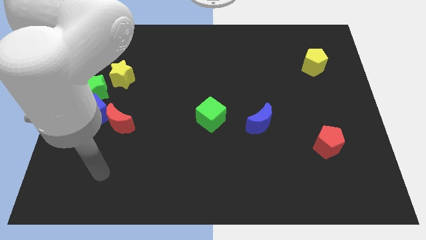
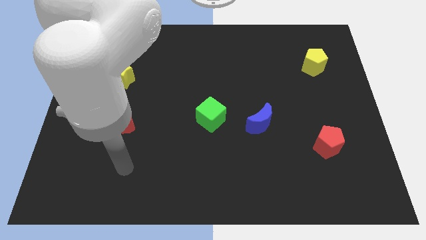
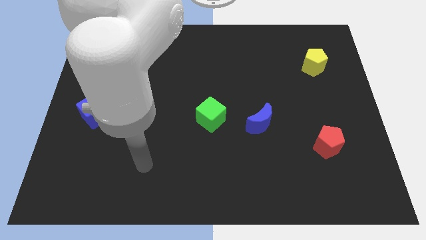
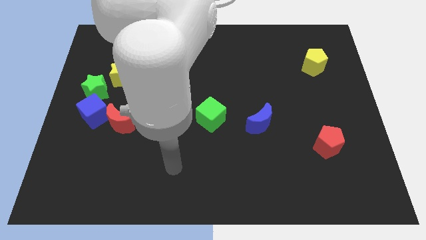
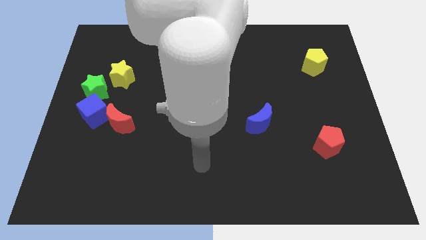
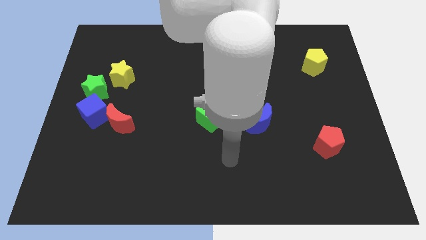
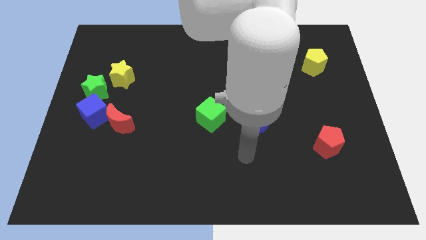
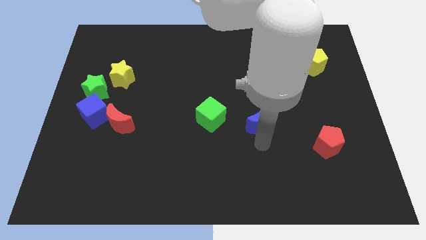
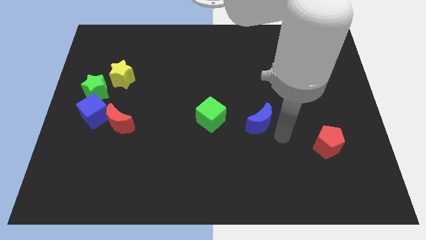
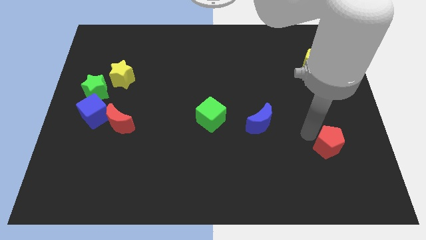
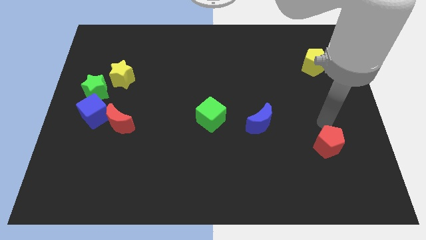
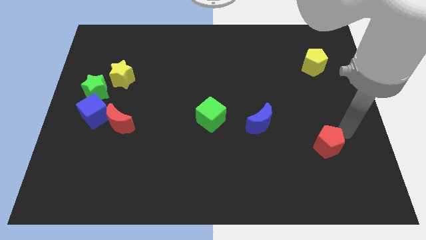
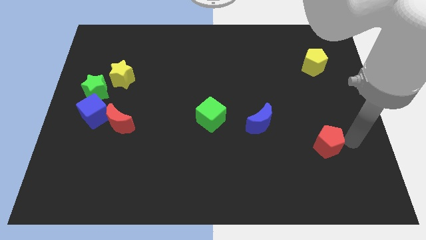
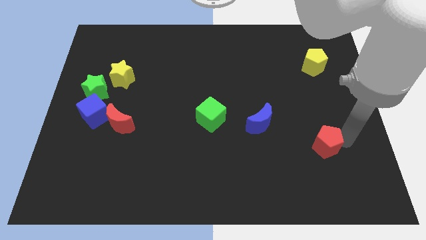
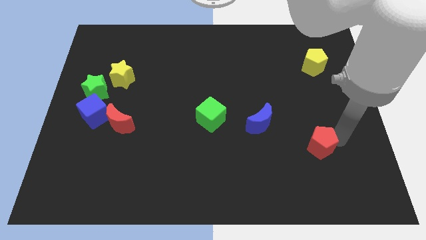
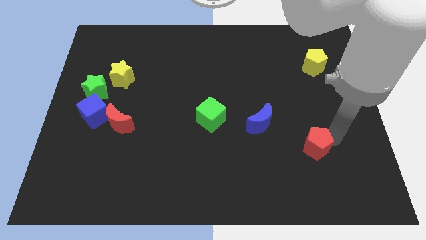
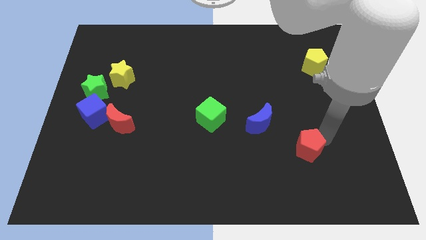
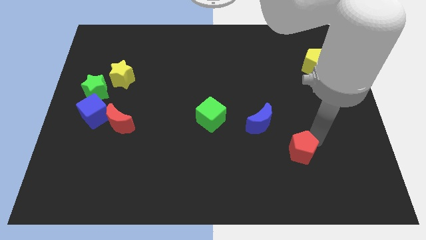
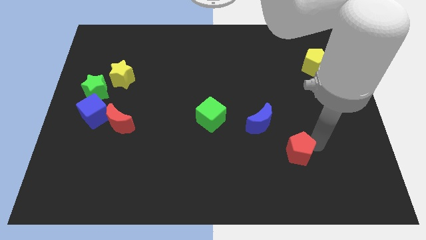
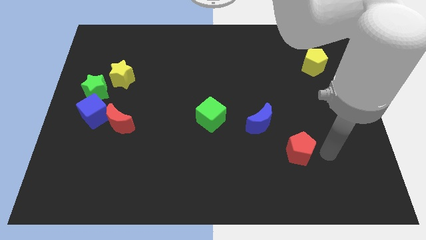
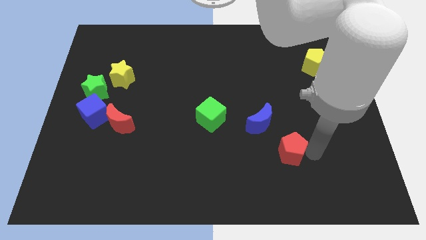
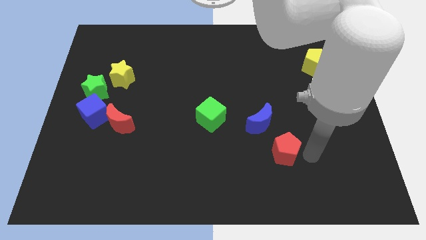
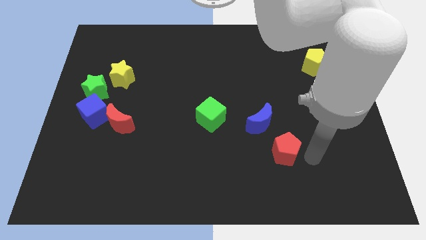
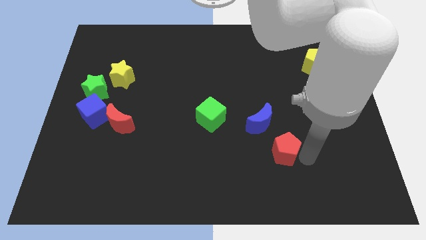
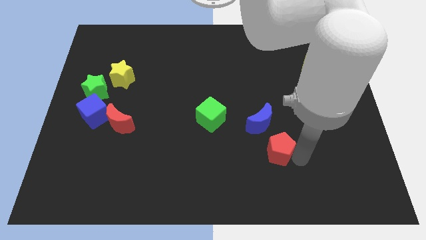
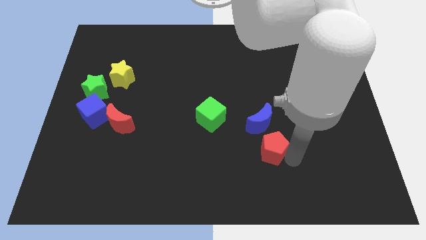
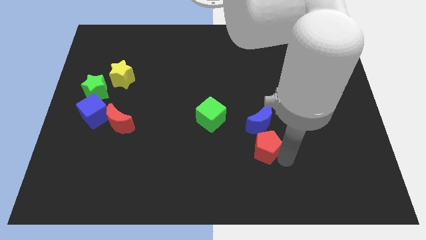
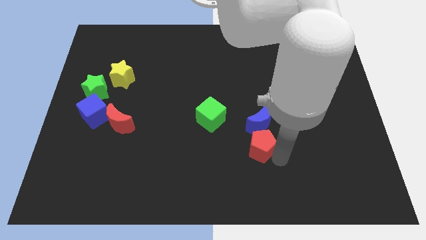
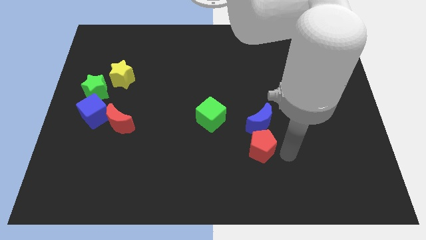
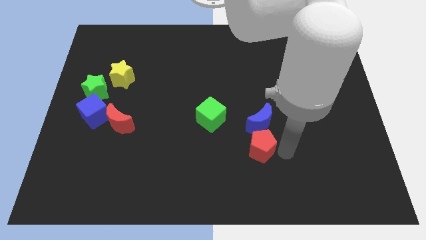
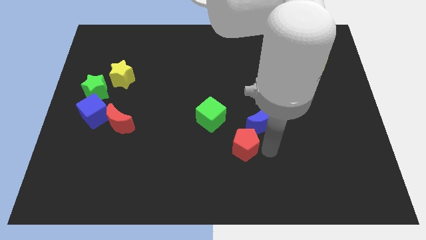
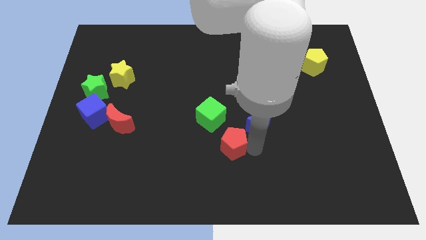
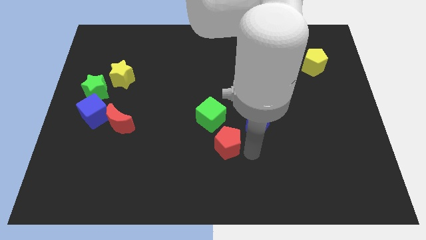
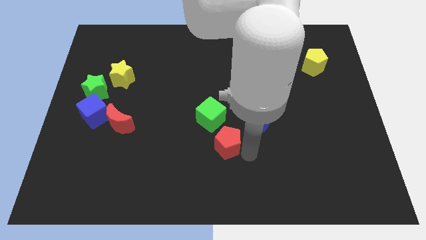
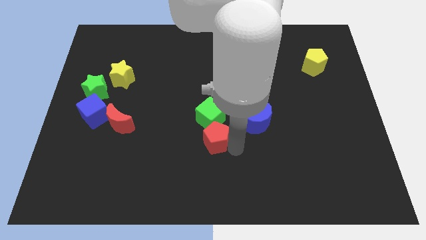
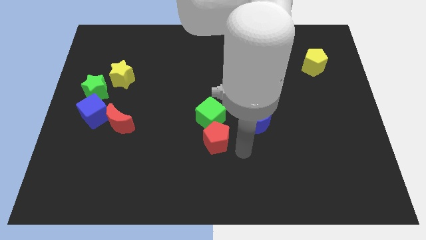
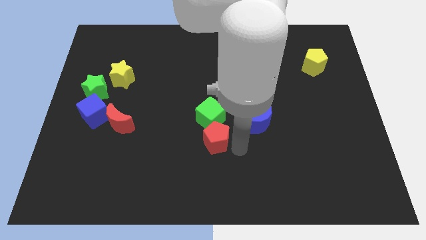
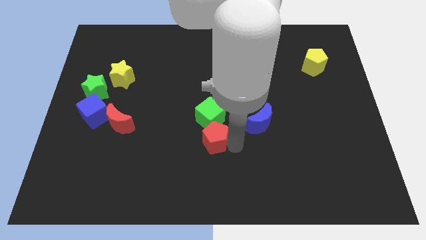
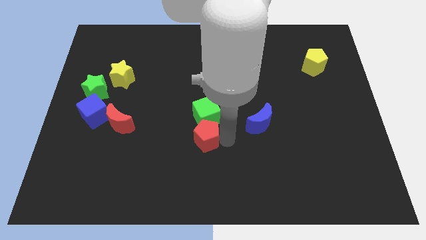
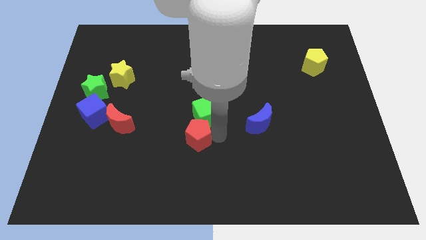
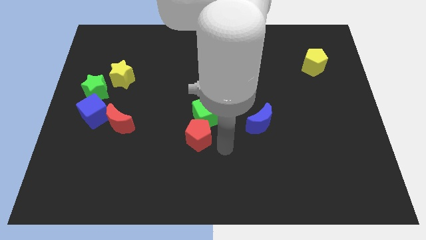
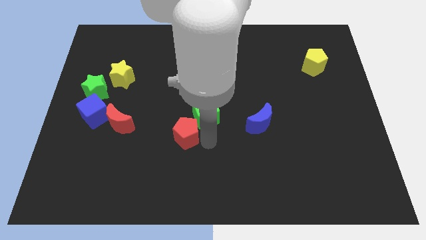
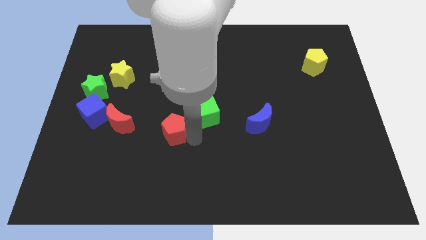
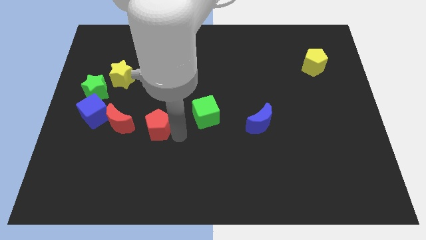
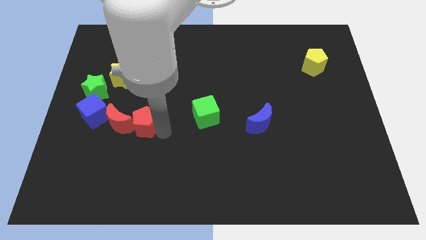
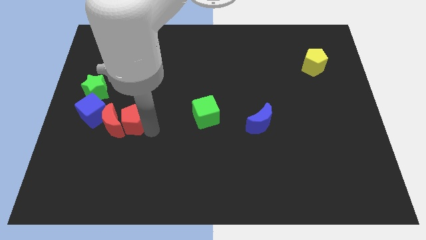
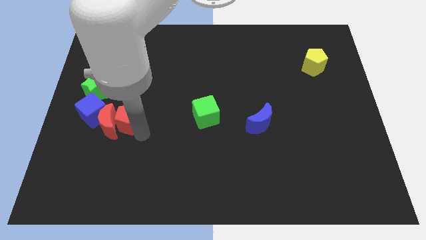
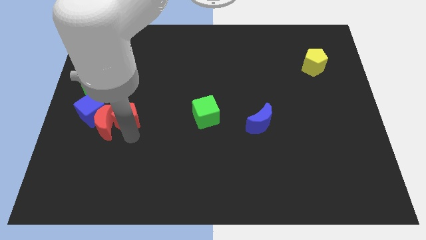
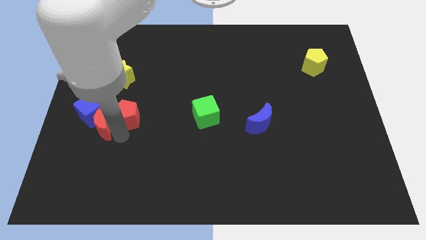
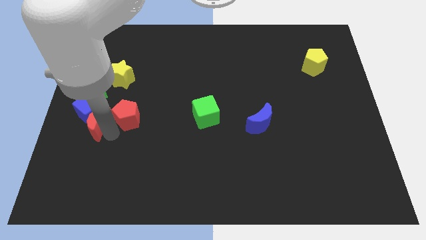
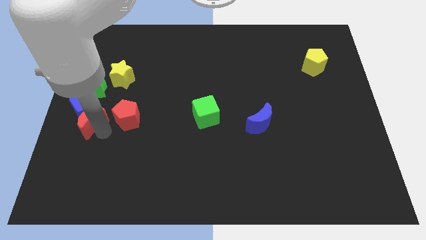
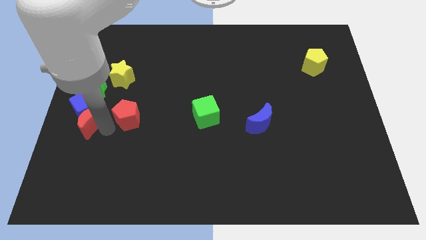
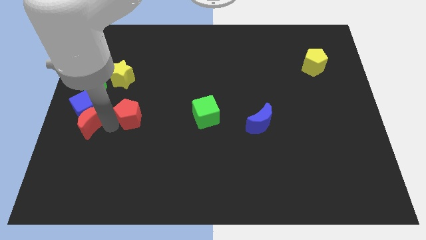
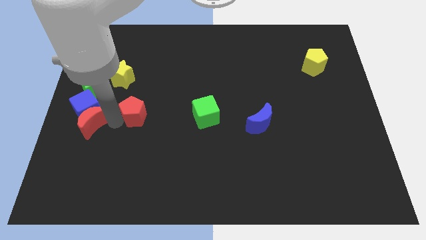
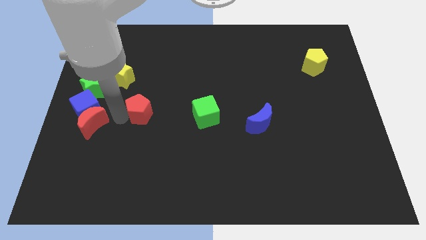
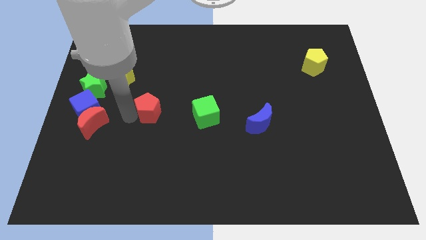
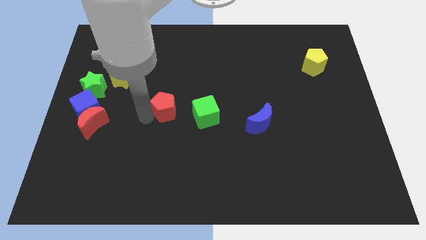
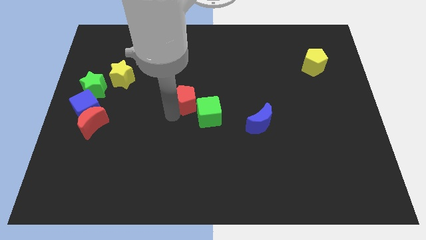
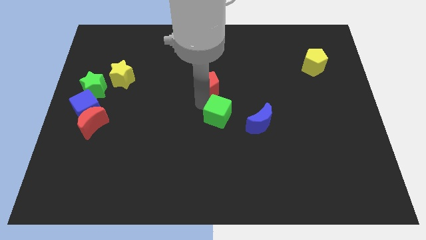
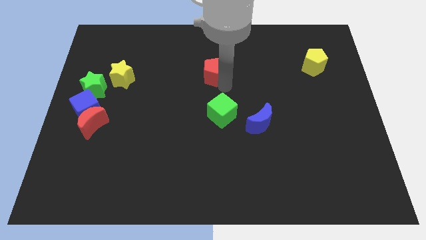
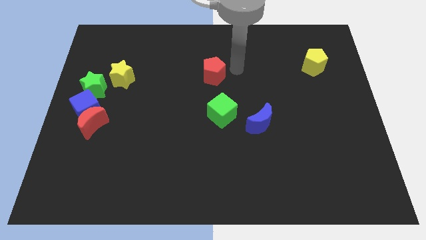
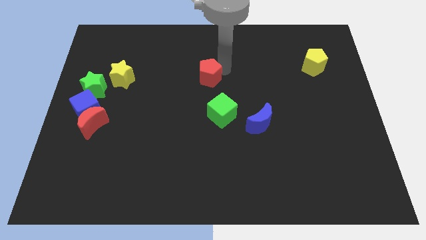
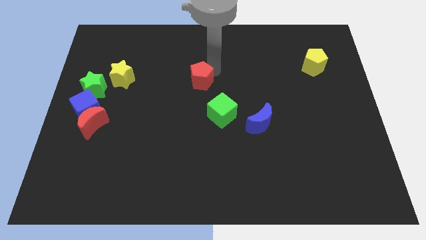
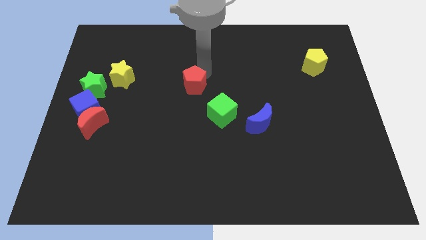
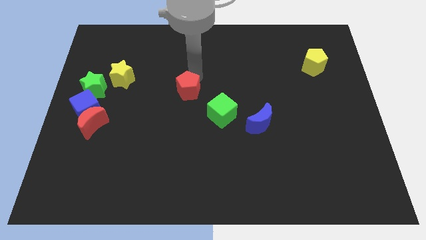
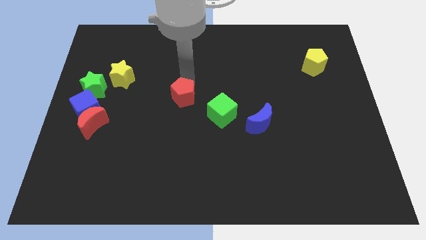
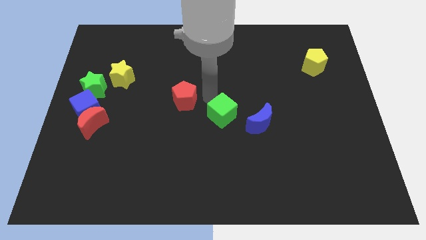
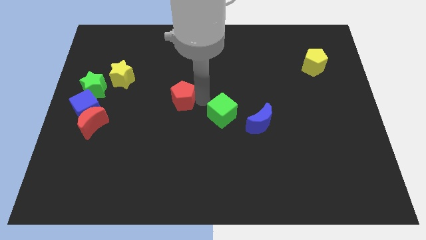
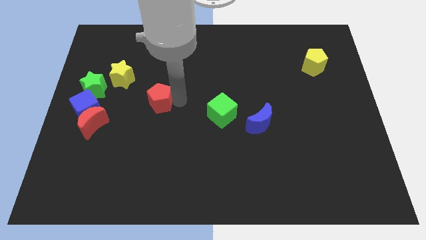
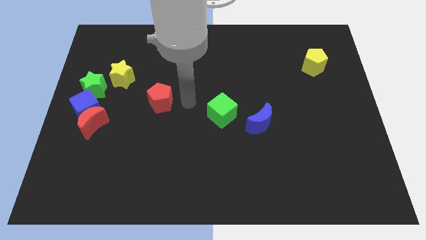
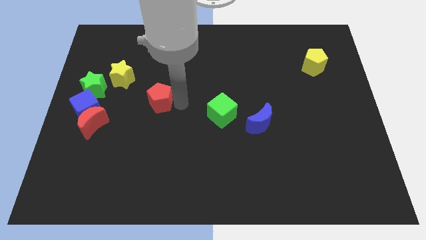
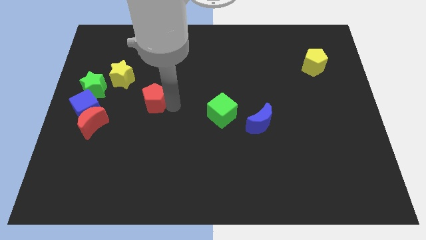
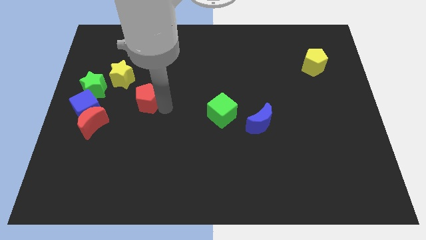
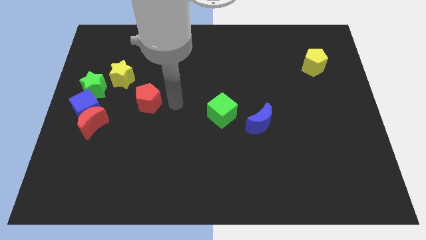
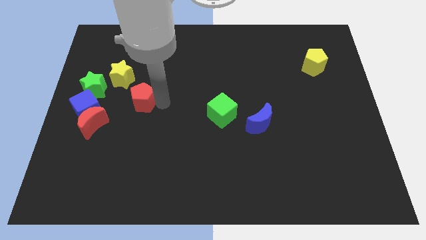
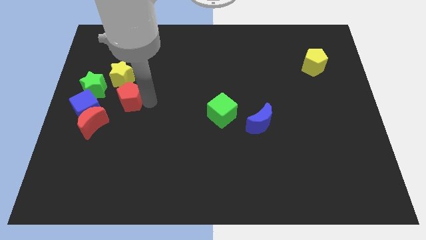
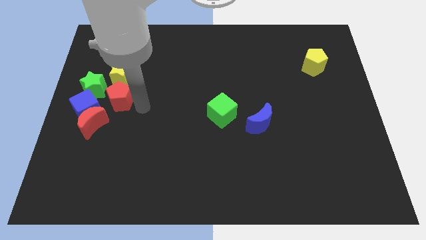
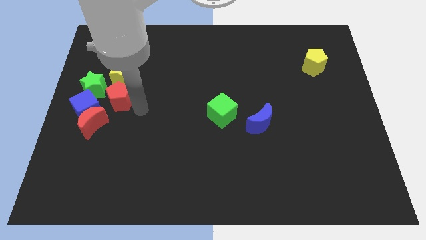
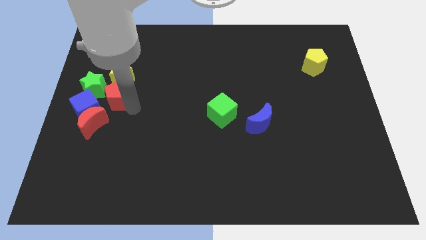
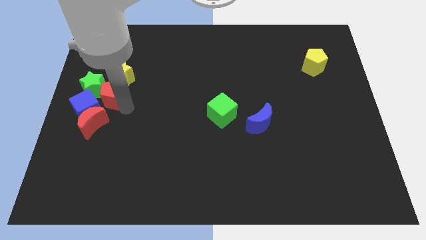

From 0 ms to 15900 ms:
put the red pentagon close to the green star
